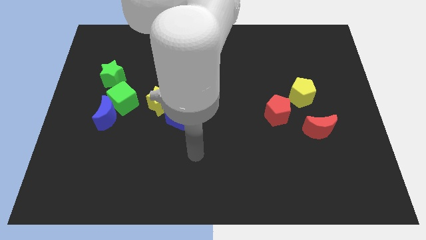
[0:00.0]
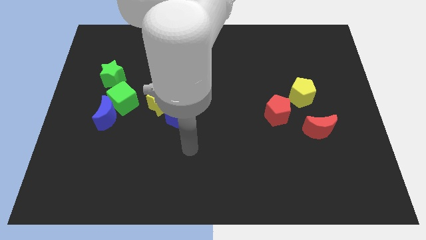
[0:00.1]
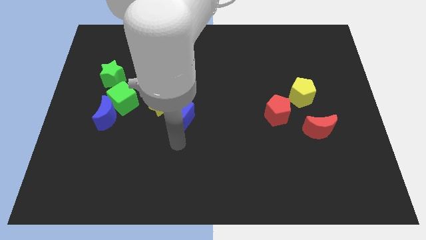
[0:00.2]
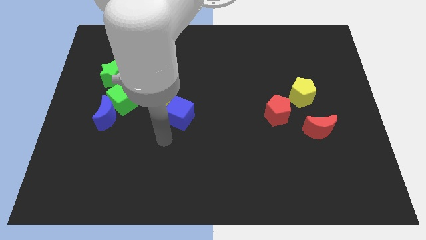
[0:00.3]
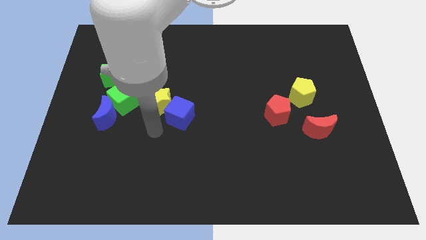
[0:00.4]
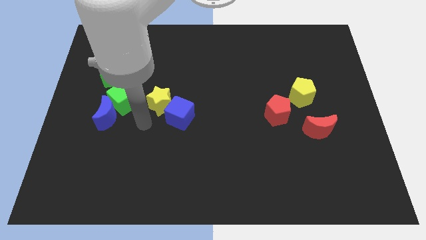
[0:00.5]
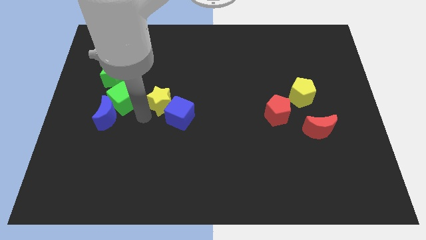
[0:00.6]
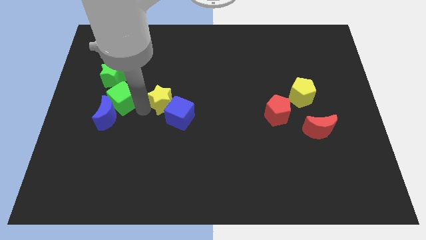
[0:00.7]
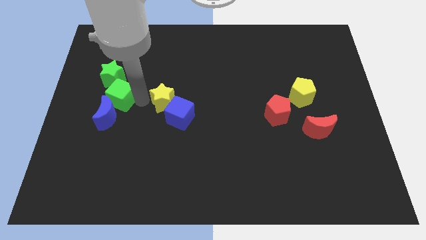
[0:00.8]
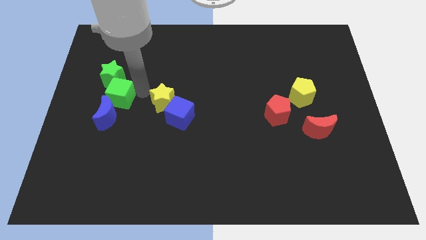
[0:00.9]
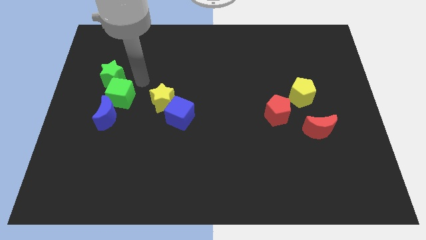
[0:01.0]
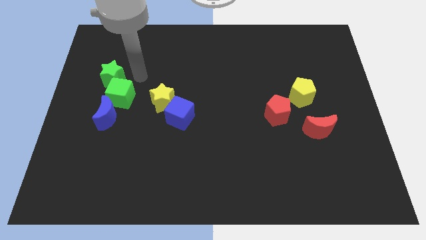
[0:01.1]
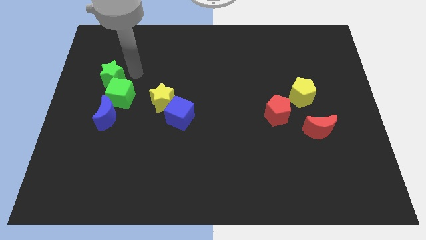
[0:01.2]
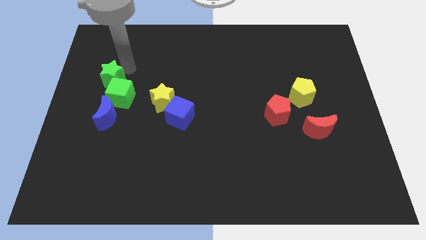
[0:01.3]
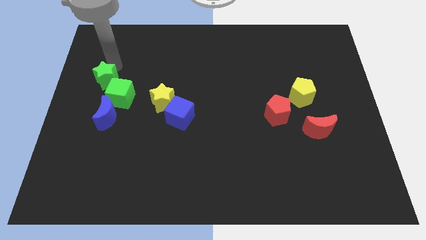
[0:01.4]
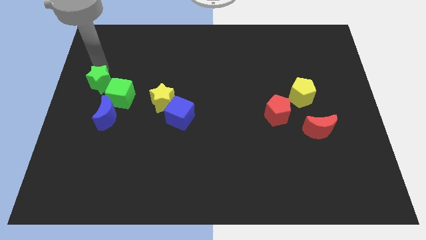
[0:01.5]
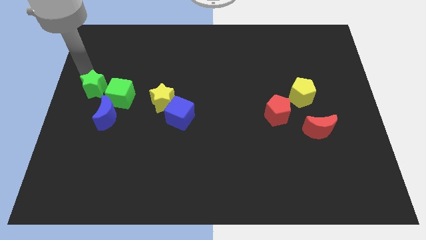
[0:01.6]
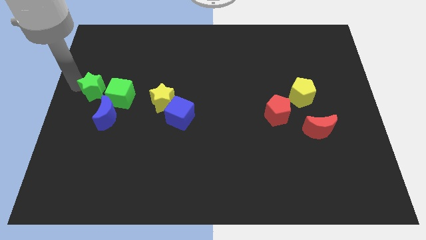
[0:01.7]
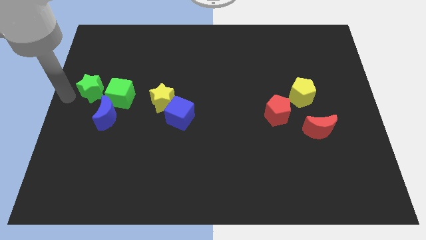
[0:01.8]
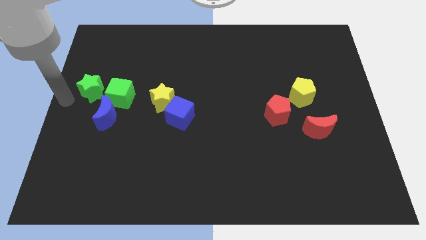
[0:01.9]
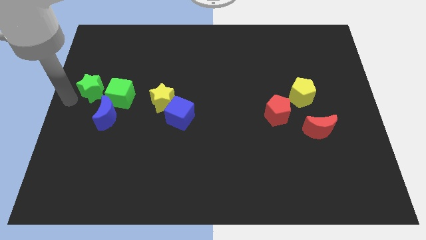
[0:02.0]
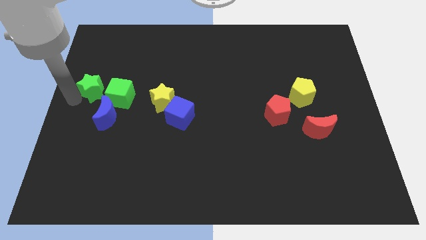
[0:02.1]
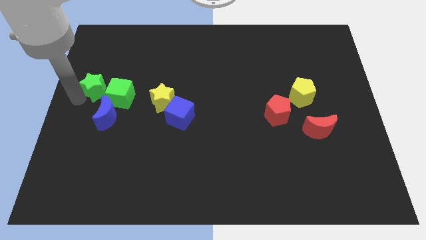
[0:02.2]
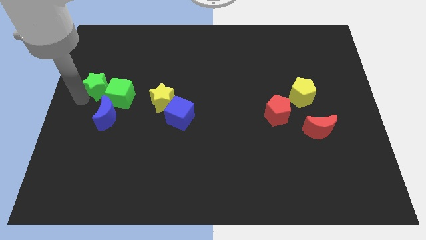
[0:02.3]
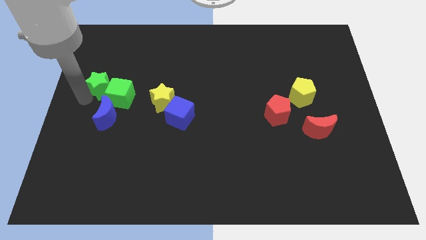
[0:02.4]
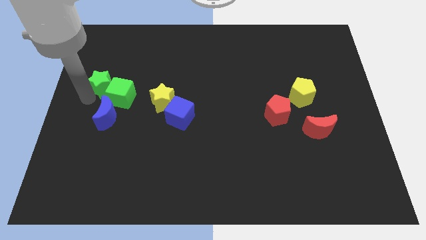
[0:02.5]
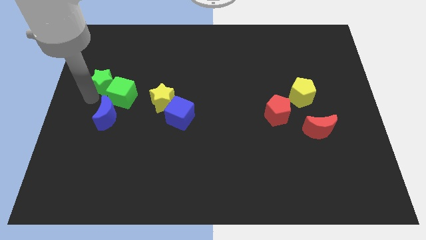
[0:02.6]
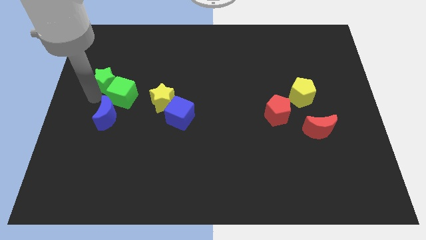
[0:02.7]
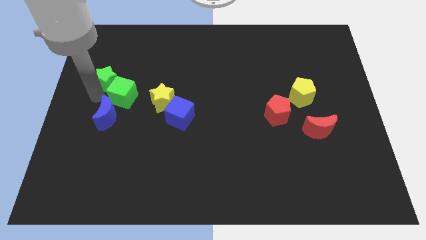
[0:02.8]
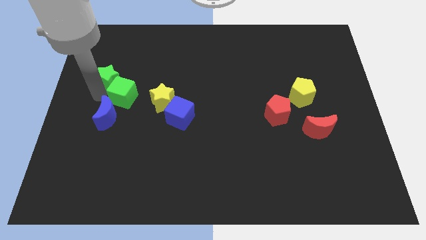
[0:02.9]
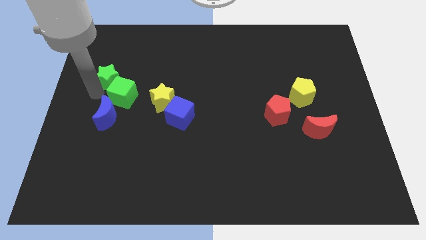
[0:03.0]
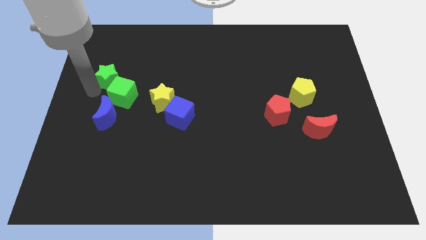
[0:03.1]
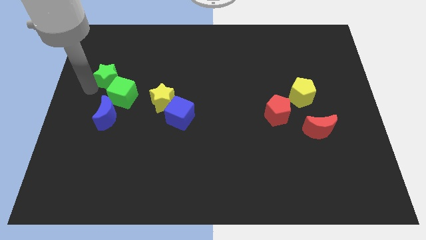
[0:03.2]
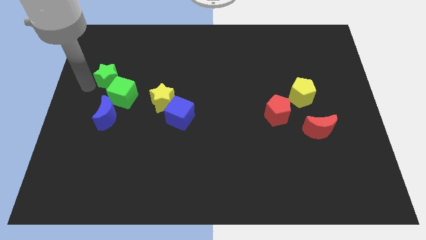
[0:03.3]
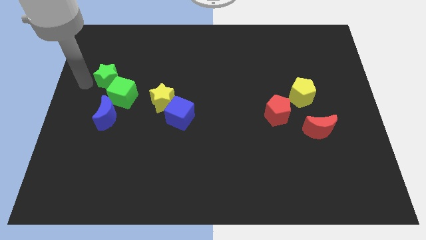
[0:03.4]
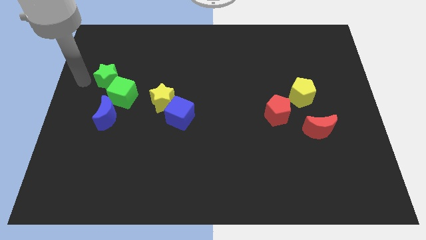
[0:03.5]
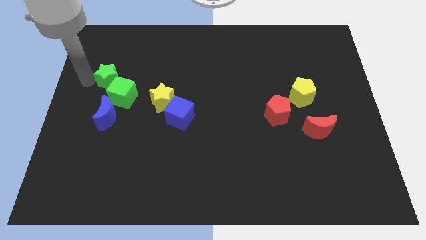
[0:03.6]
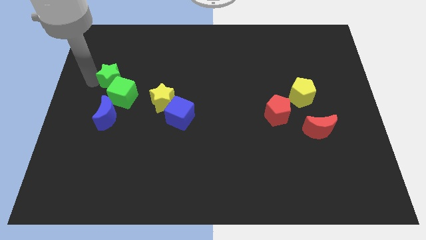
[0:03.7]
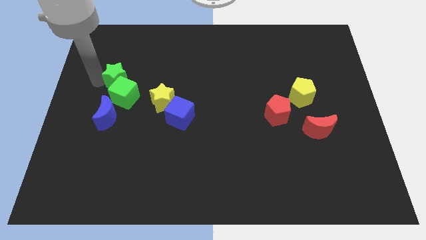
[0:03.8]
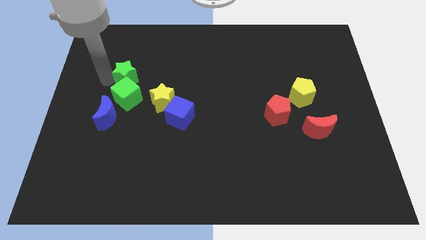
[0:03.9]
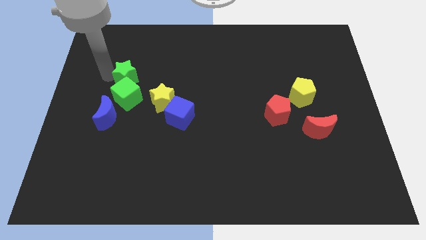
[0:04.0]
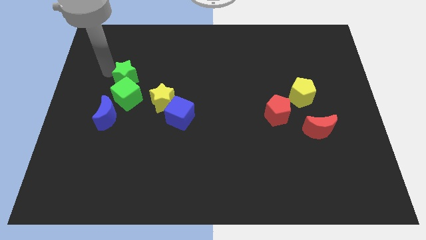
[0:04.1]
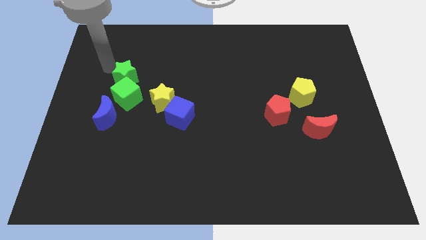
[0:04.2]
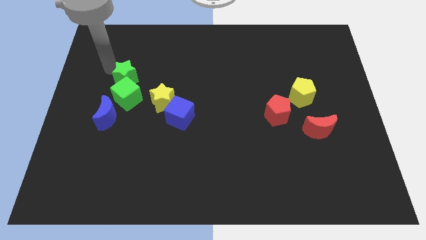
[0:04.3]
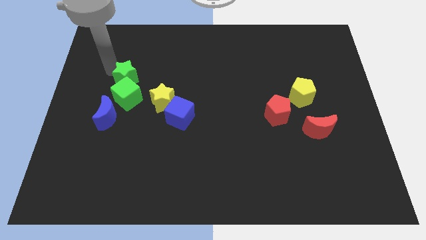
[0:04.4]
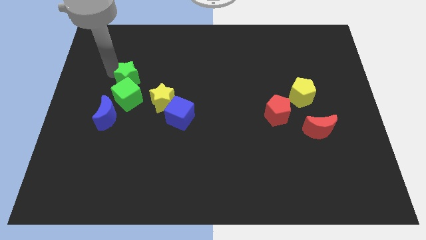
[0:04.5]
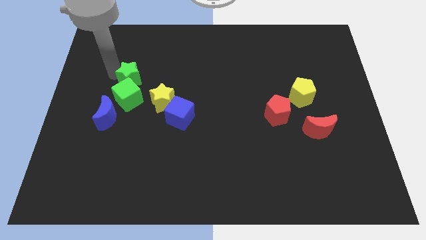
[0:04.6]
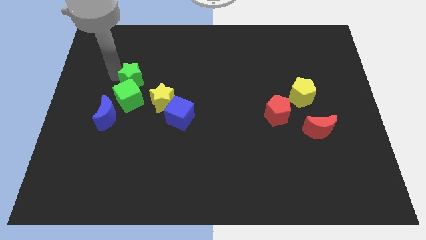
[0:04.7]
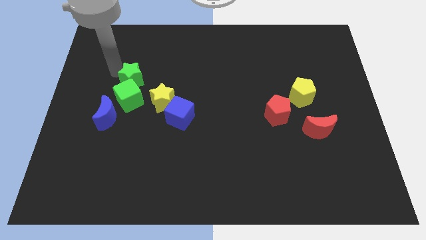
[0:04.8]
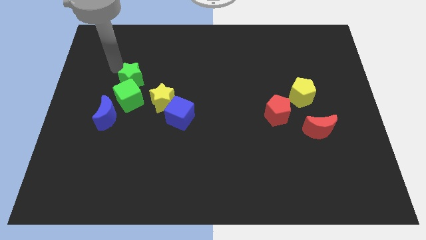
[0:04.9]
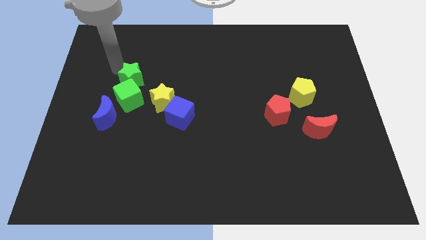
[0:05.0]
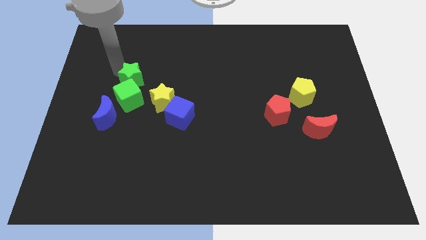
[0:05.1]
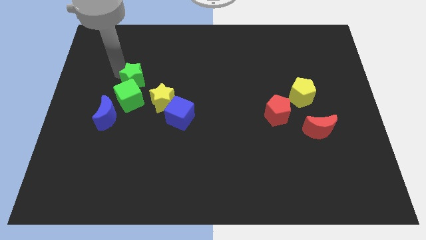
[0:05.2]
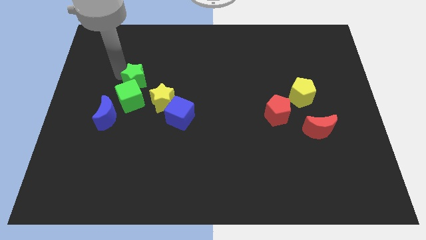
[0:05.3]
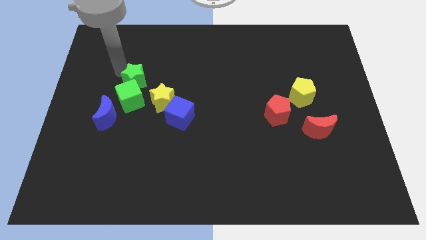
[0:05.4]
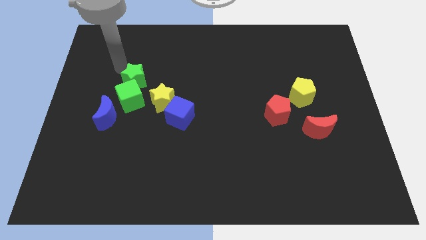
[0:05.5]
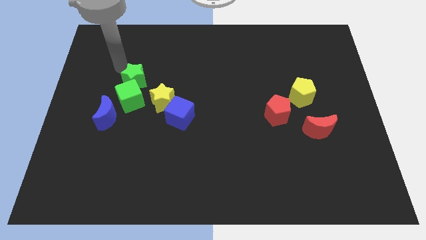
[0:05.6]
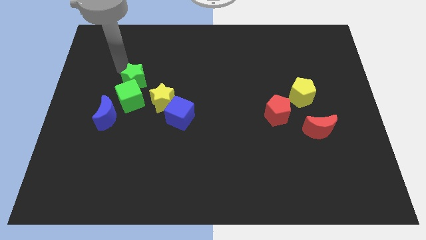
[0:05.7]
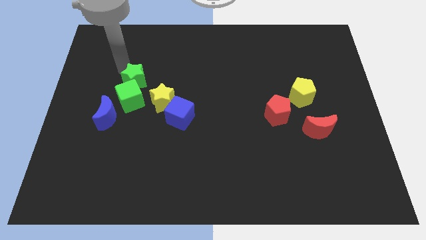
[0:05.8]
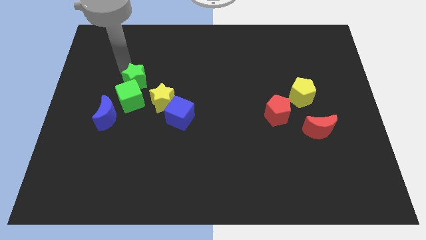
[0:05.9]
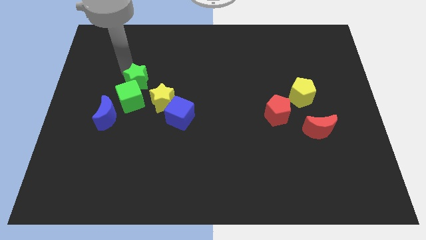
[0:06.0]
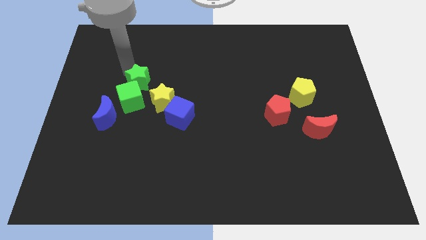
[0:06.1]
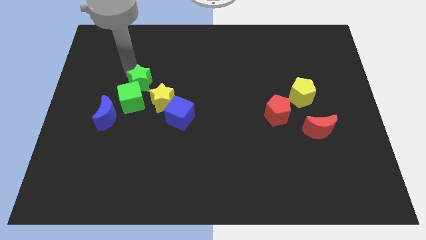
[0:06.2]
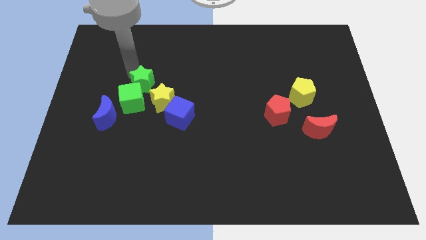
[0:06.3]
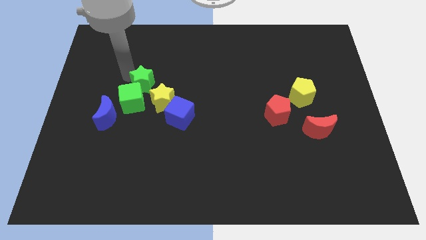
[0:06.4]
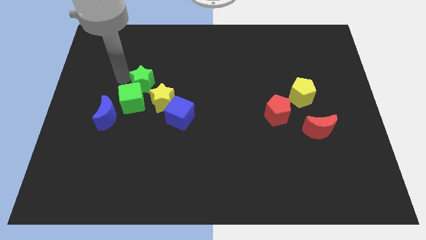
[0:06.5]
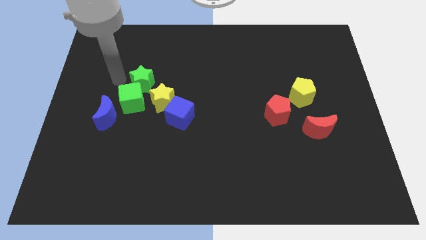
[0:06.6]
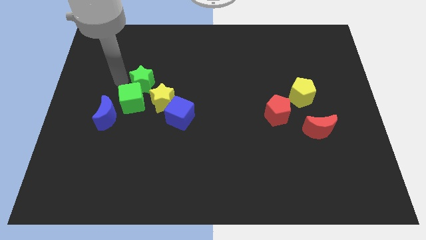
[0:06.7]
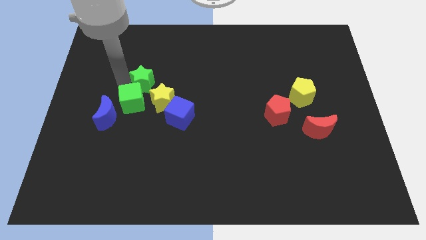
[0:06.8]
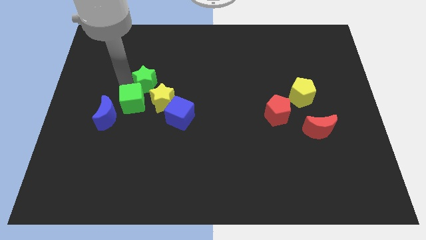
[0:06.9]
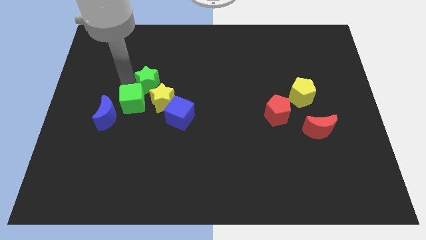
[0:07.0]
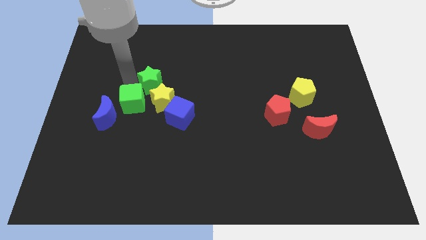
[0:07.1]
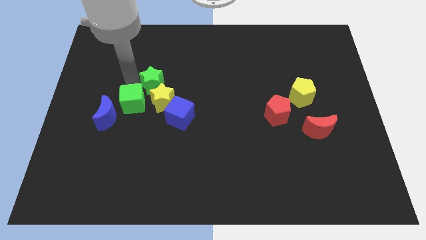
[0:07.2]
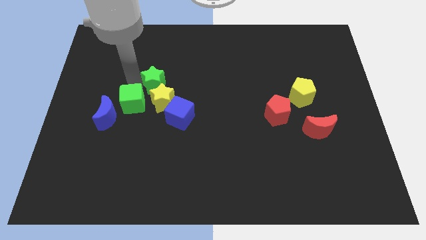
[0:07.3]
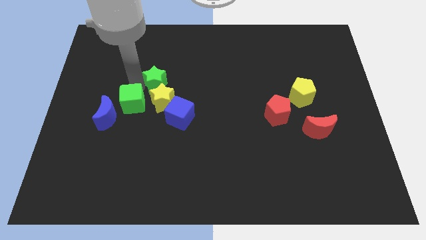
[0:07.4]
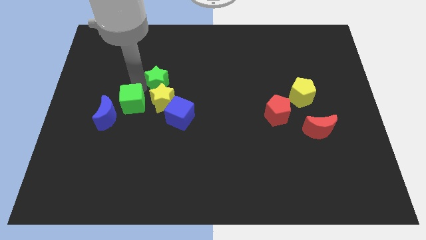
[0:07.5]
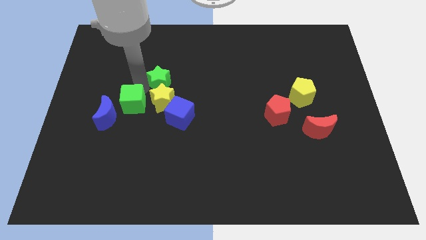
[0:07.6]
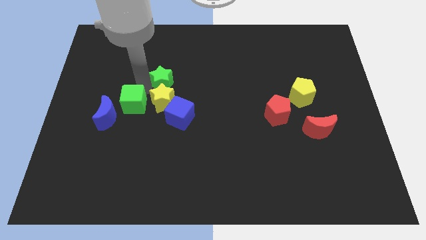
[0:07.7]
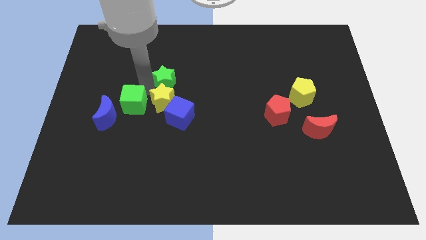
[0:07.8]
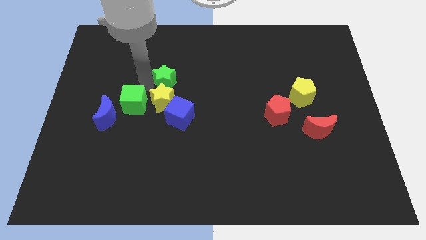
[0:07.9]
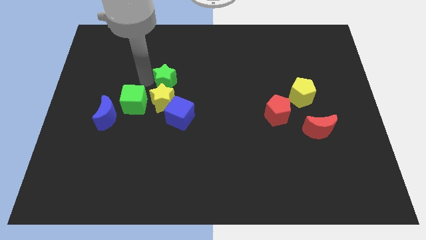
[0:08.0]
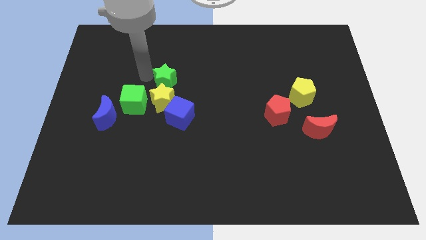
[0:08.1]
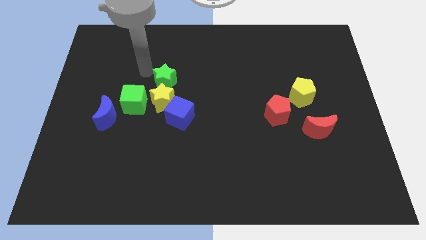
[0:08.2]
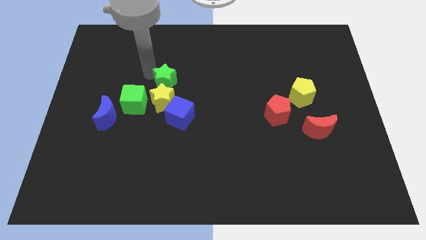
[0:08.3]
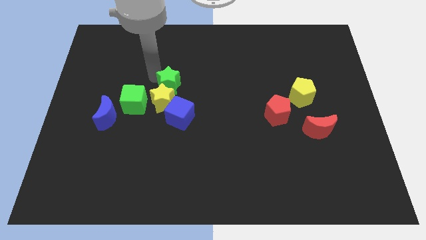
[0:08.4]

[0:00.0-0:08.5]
push the green star to the middle
